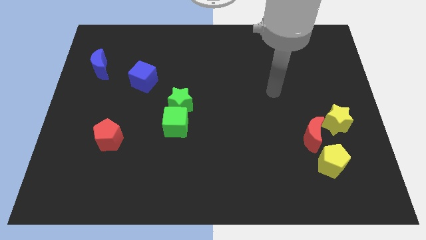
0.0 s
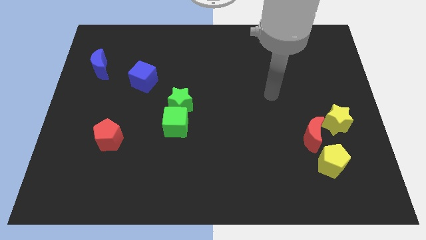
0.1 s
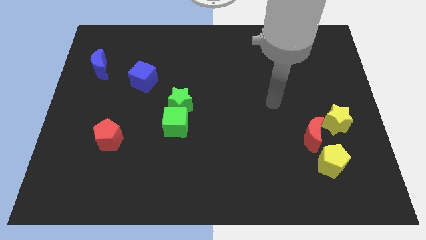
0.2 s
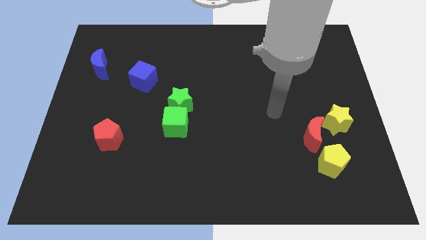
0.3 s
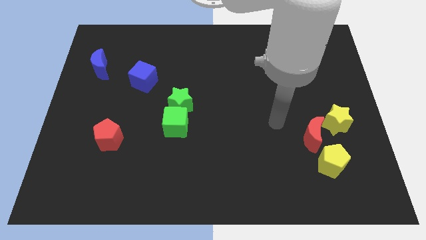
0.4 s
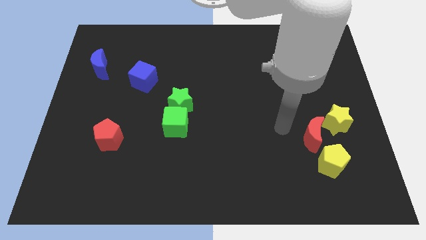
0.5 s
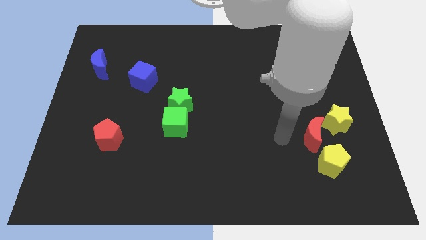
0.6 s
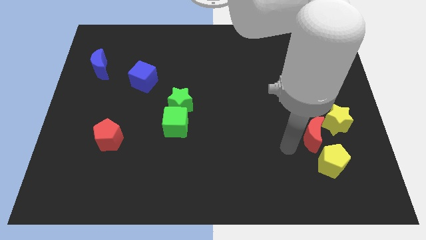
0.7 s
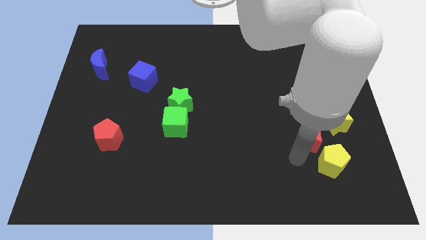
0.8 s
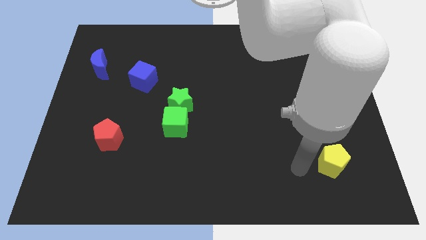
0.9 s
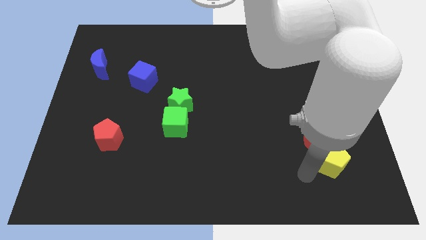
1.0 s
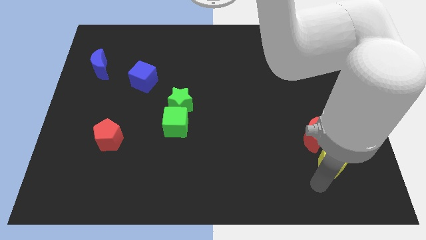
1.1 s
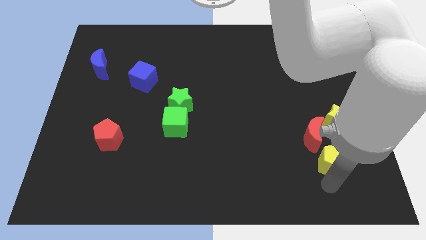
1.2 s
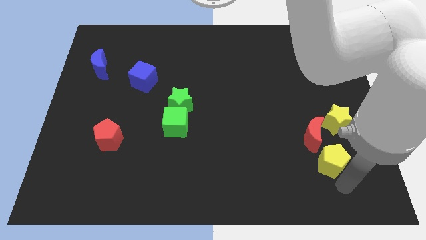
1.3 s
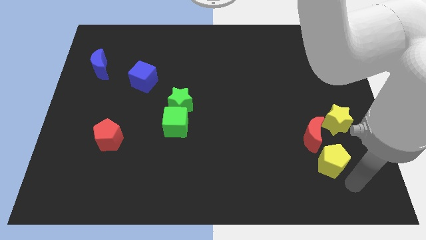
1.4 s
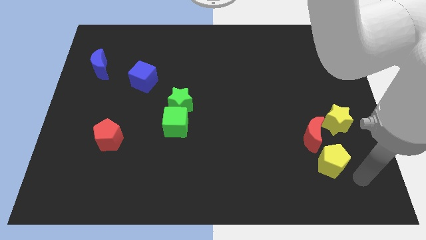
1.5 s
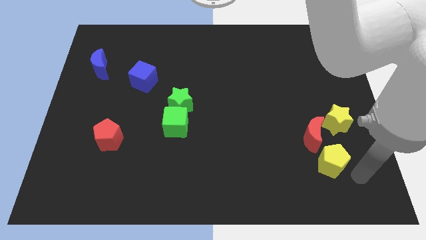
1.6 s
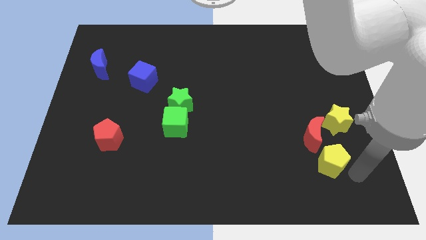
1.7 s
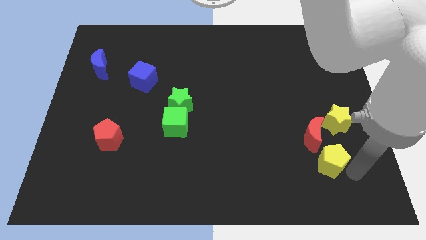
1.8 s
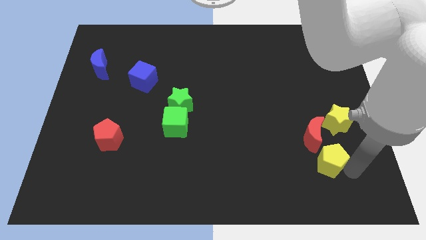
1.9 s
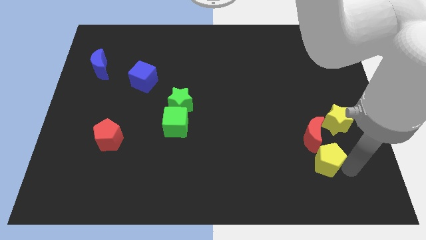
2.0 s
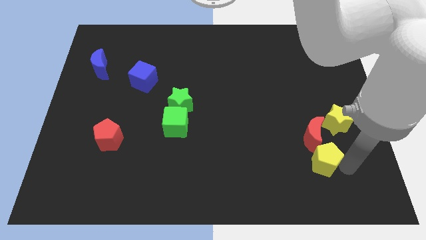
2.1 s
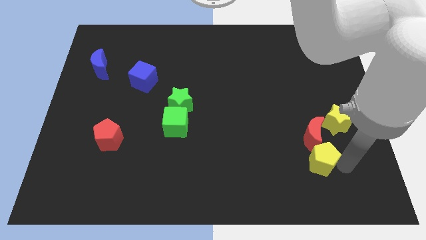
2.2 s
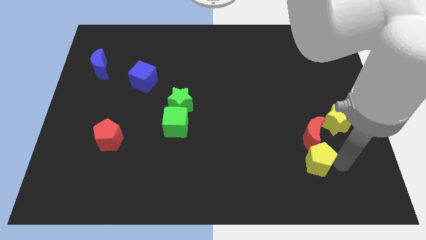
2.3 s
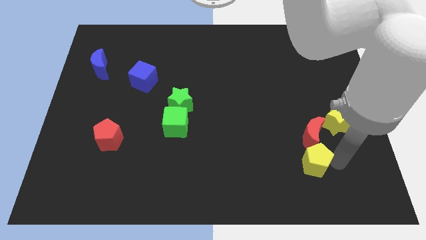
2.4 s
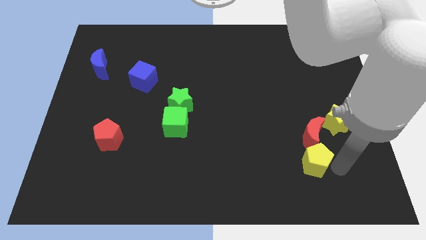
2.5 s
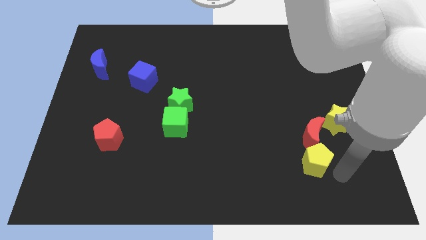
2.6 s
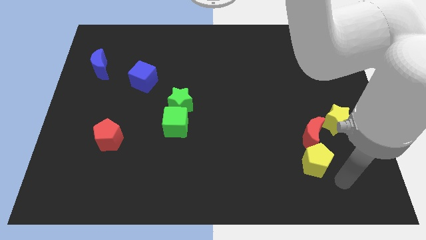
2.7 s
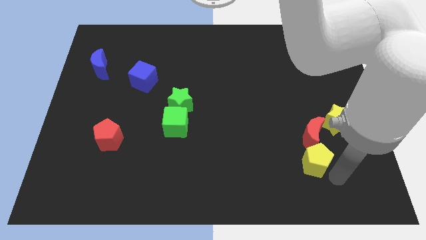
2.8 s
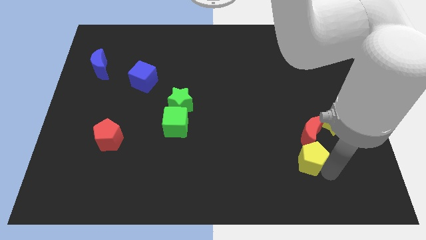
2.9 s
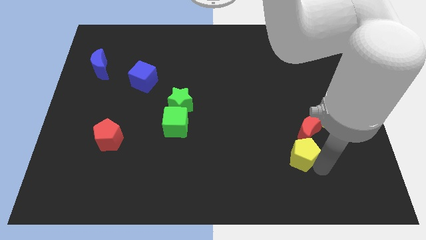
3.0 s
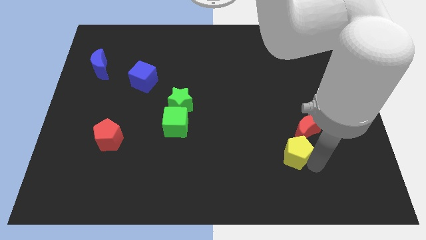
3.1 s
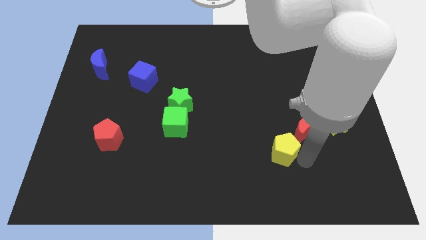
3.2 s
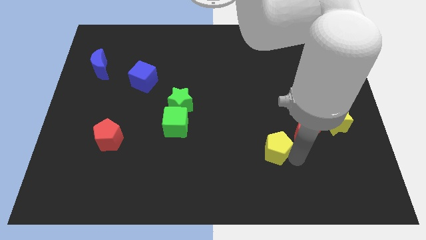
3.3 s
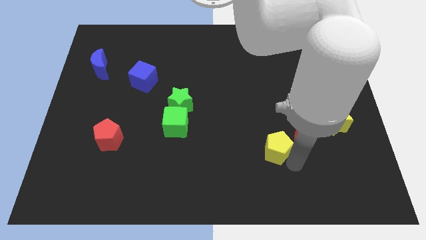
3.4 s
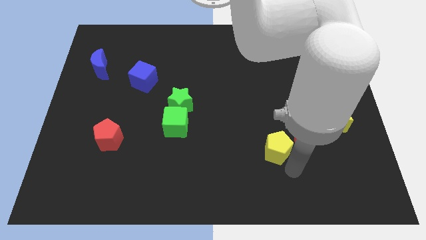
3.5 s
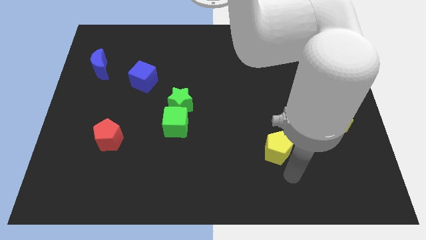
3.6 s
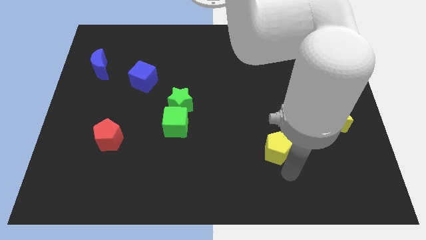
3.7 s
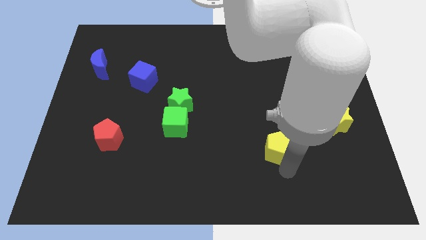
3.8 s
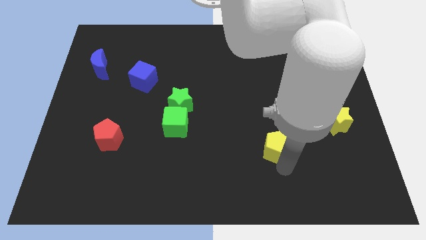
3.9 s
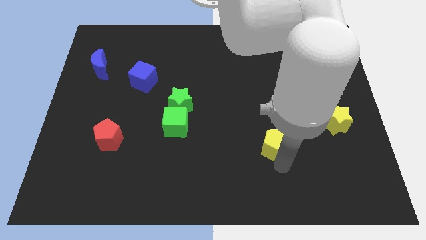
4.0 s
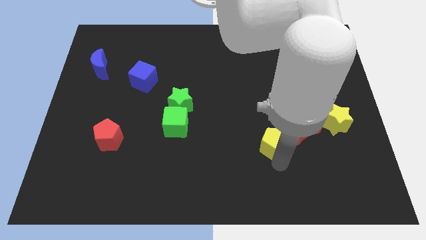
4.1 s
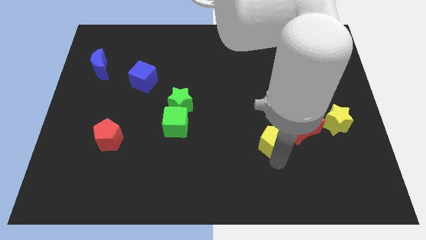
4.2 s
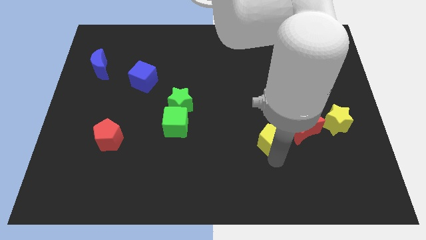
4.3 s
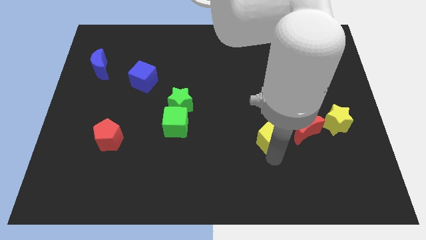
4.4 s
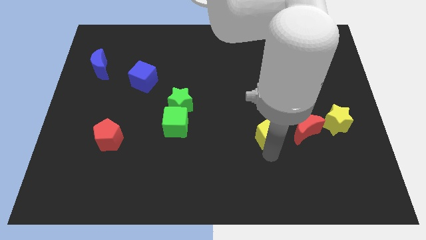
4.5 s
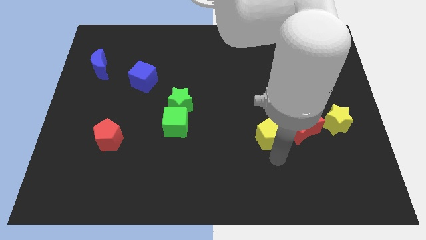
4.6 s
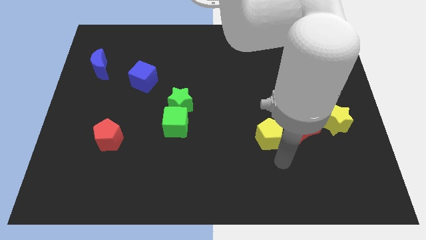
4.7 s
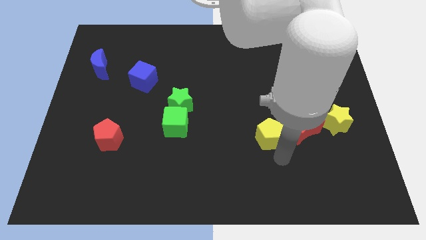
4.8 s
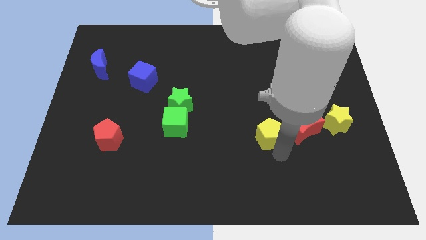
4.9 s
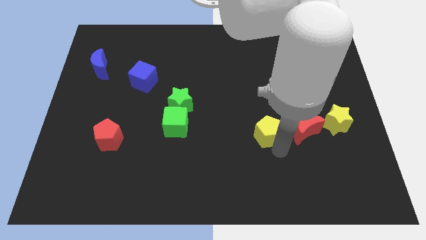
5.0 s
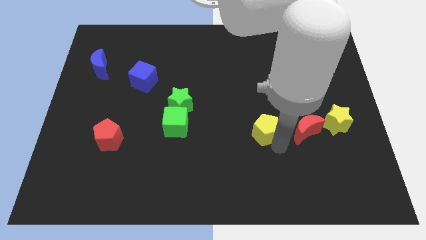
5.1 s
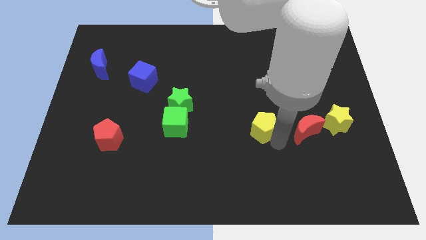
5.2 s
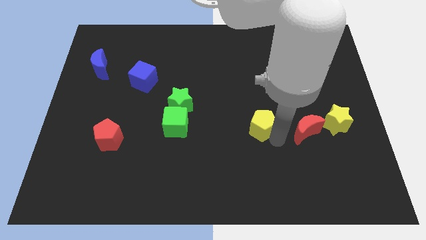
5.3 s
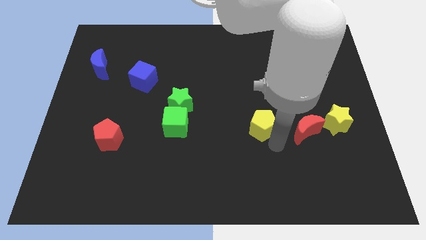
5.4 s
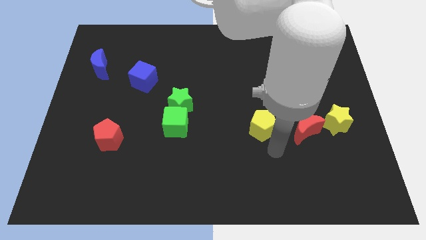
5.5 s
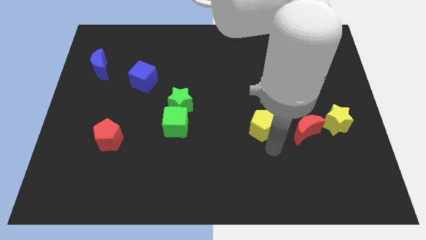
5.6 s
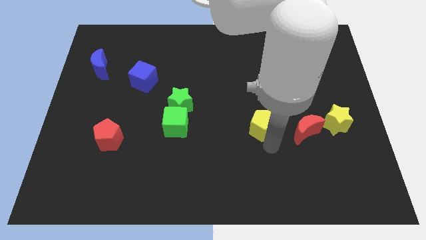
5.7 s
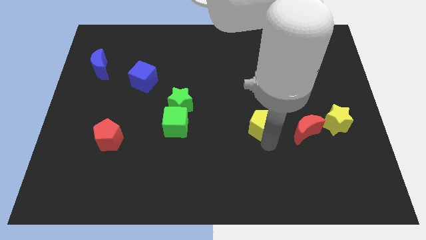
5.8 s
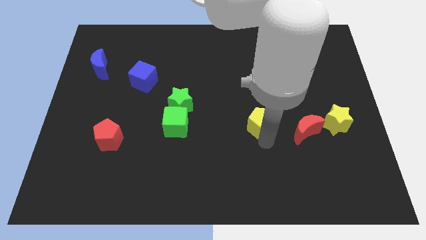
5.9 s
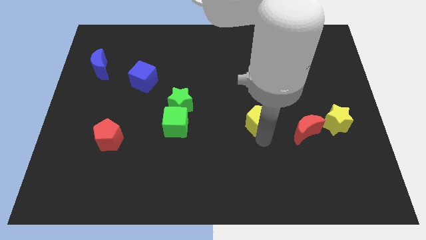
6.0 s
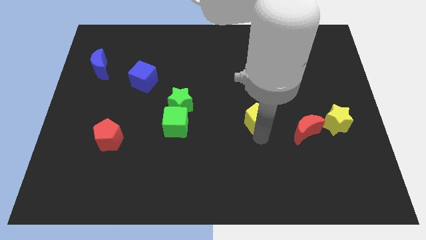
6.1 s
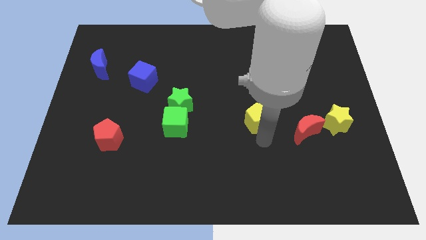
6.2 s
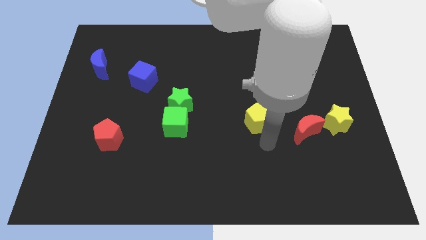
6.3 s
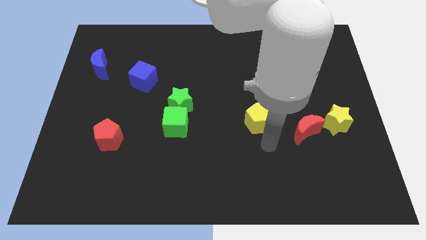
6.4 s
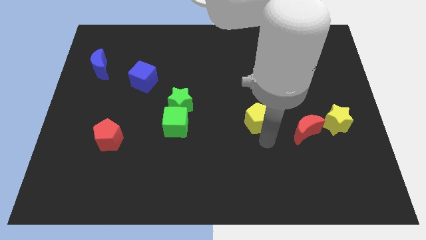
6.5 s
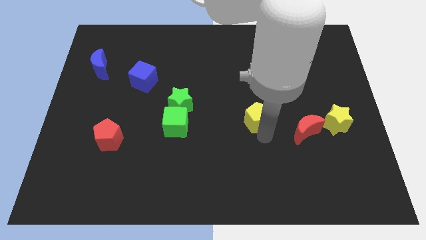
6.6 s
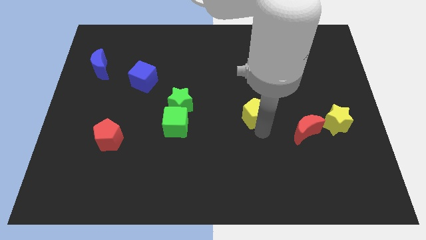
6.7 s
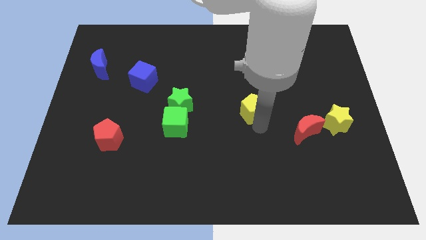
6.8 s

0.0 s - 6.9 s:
slide the yellow pentagon diagonally up and to the left

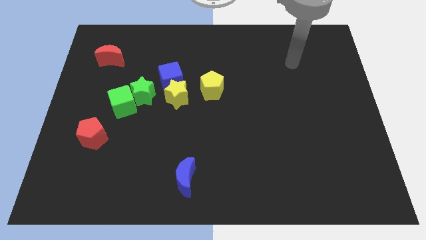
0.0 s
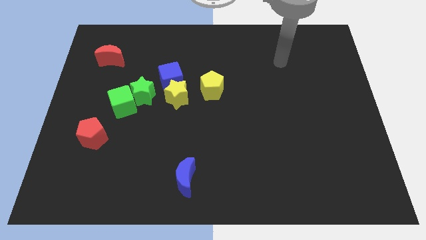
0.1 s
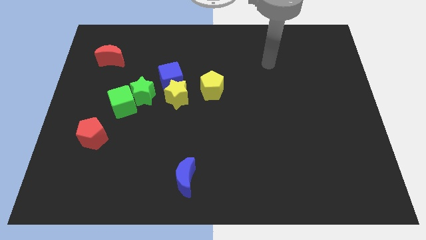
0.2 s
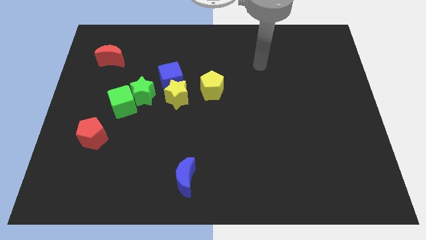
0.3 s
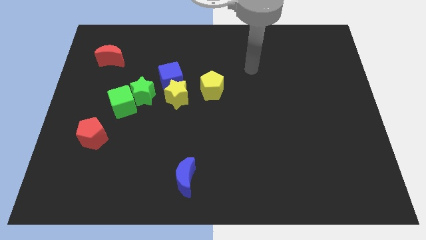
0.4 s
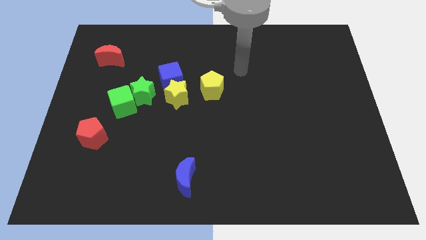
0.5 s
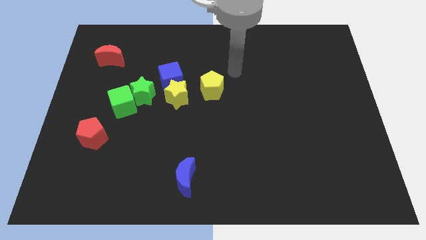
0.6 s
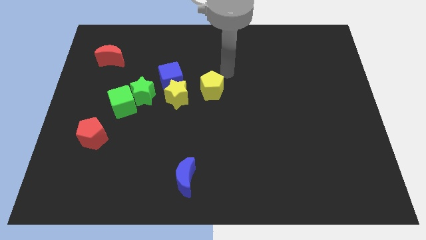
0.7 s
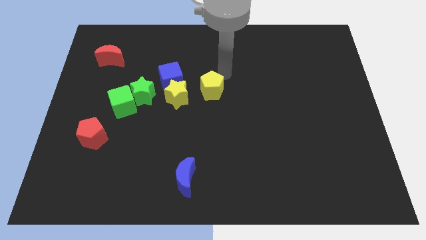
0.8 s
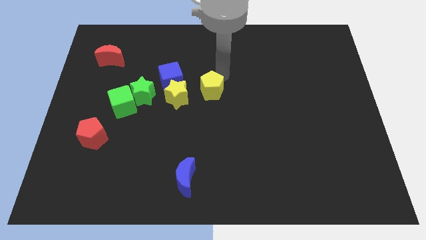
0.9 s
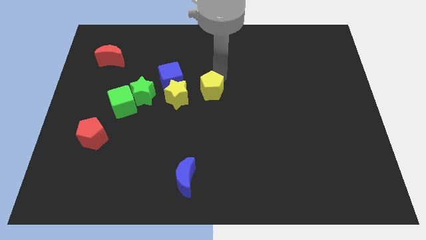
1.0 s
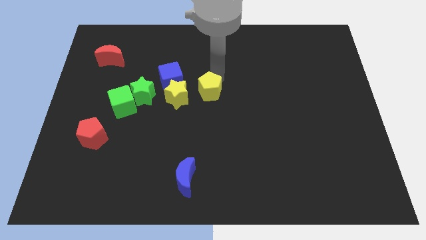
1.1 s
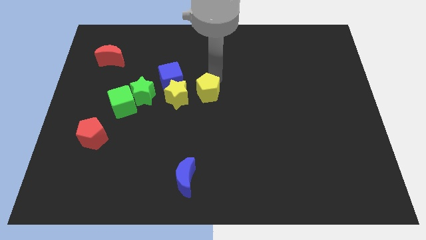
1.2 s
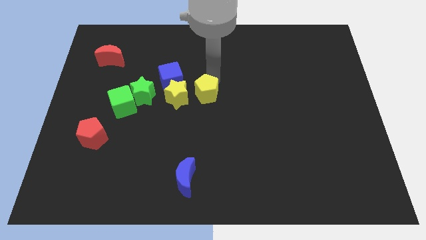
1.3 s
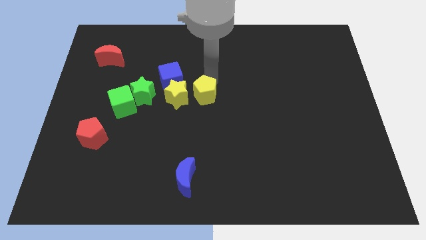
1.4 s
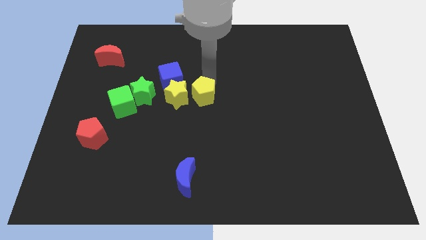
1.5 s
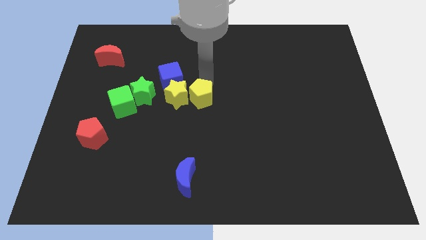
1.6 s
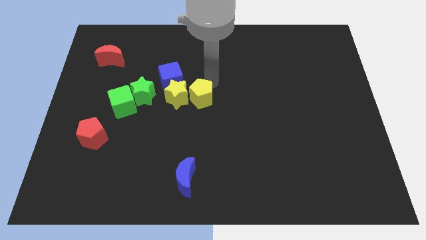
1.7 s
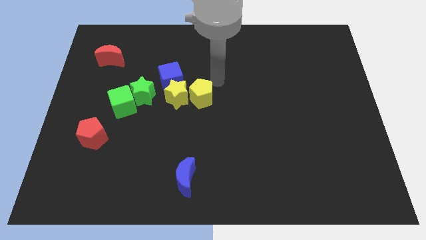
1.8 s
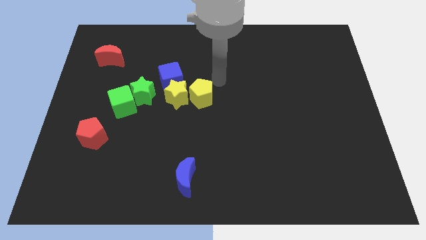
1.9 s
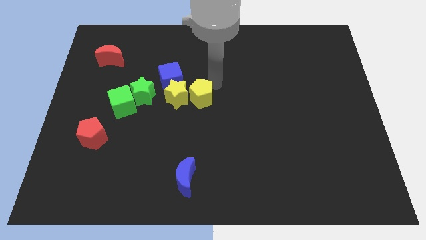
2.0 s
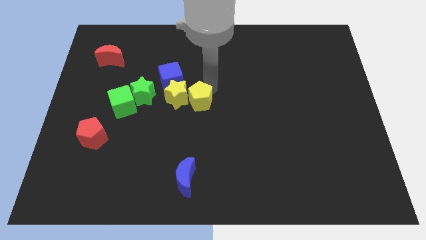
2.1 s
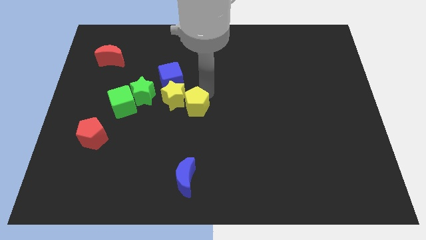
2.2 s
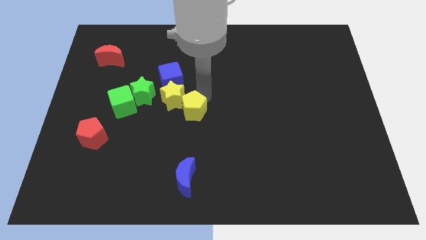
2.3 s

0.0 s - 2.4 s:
slide the yellow pentagon down and to the left a bit
